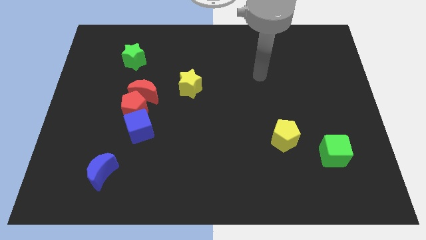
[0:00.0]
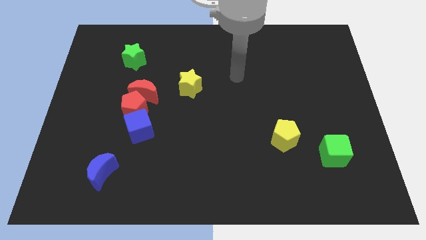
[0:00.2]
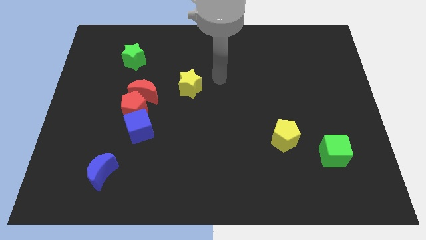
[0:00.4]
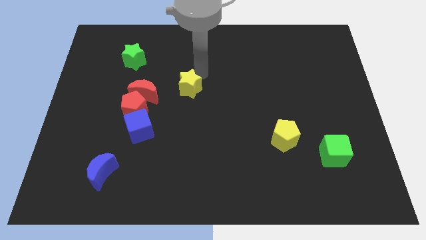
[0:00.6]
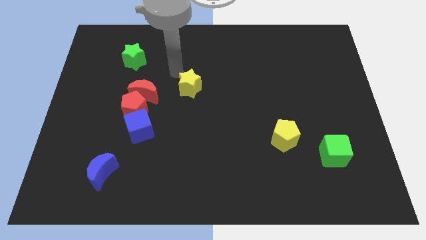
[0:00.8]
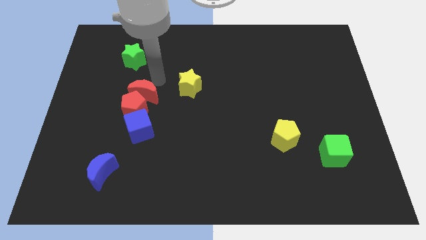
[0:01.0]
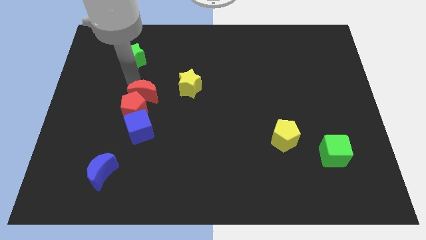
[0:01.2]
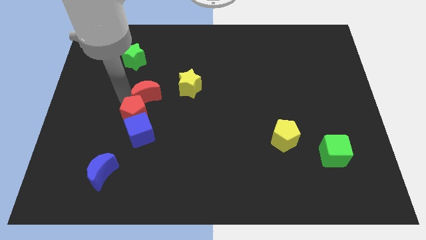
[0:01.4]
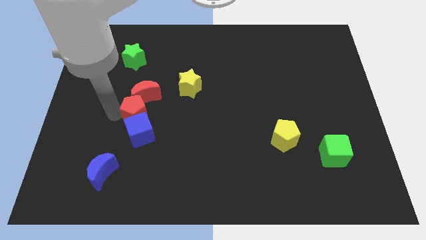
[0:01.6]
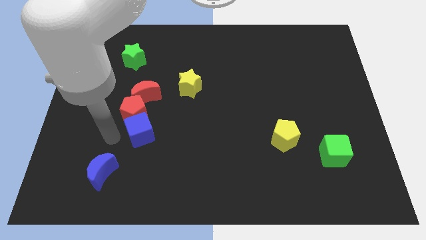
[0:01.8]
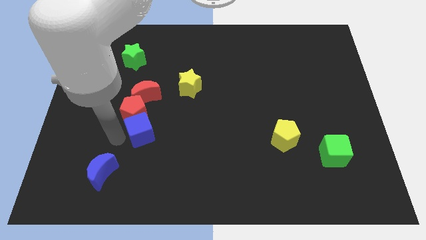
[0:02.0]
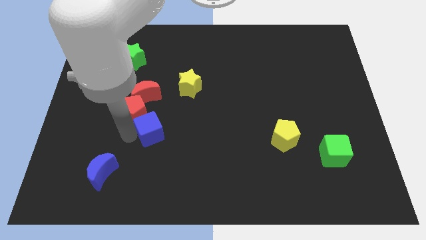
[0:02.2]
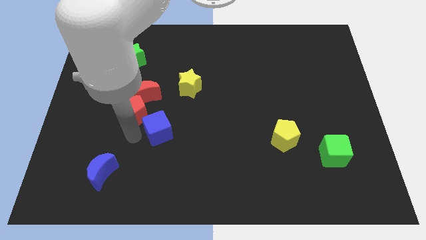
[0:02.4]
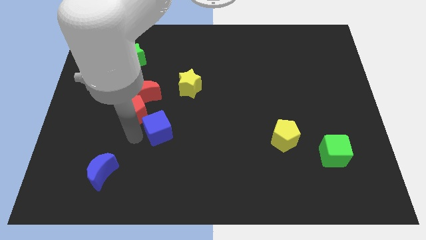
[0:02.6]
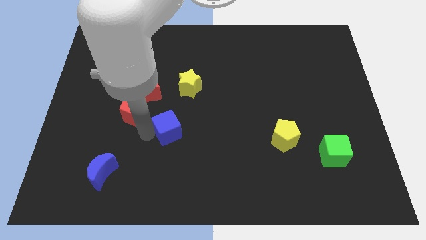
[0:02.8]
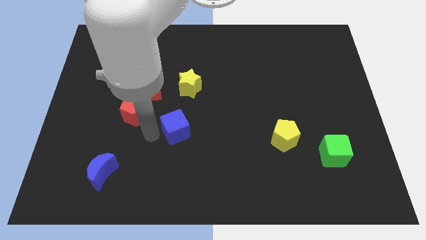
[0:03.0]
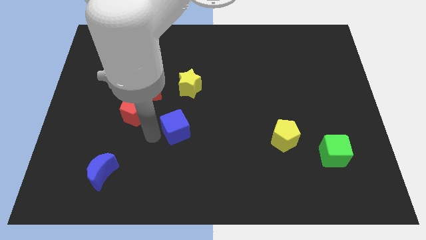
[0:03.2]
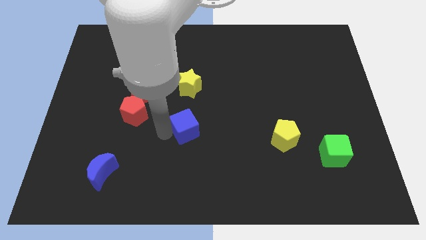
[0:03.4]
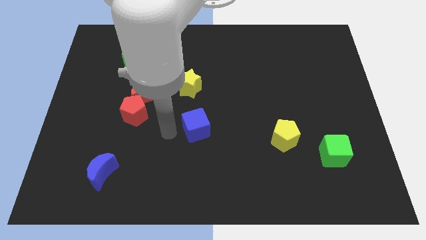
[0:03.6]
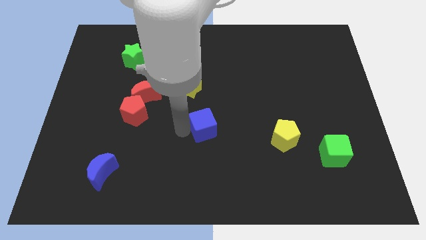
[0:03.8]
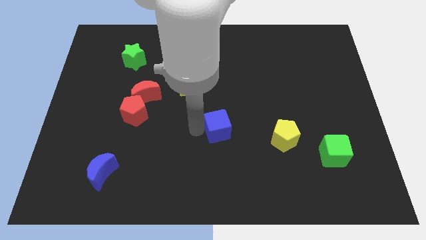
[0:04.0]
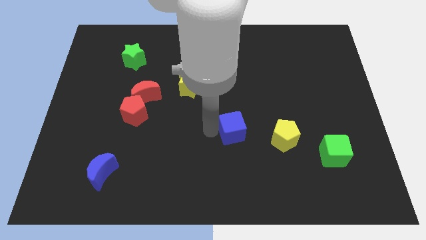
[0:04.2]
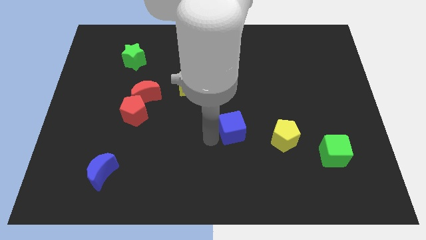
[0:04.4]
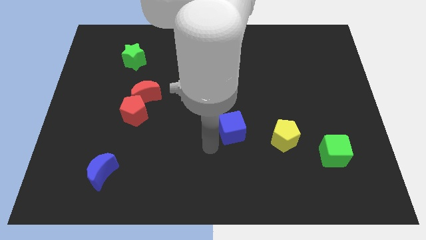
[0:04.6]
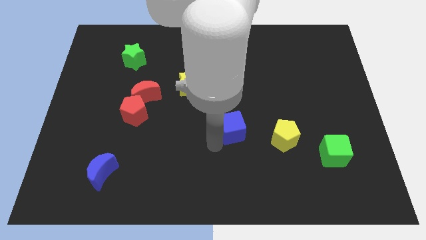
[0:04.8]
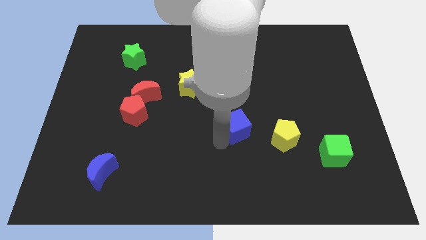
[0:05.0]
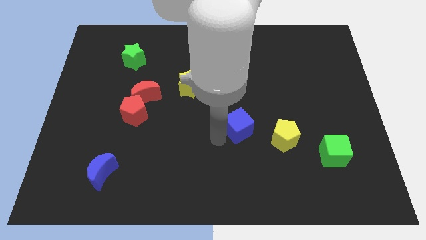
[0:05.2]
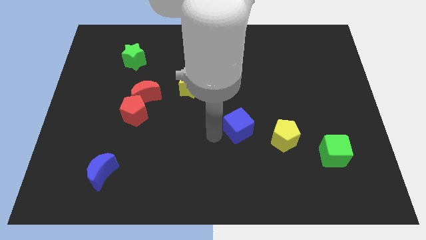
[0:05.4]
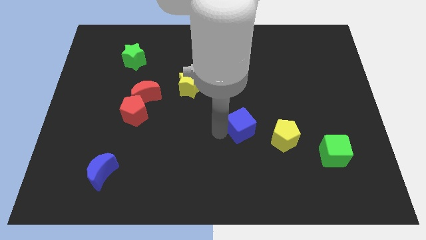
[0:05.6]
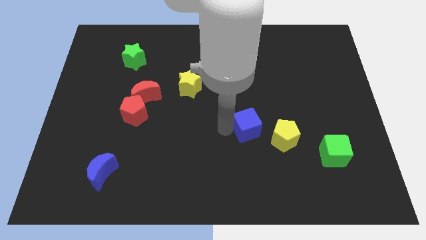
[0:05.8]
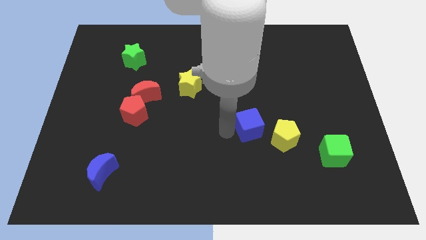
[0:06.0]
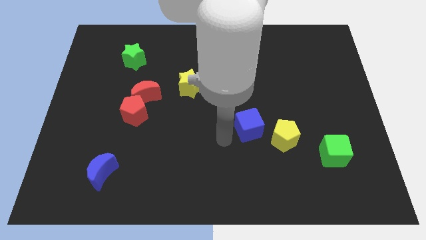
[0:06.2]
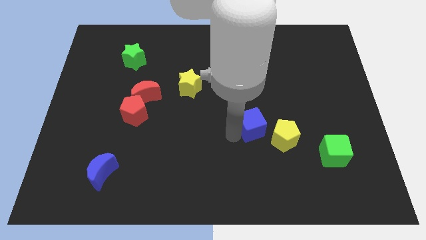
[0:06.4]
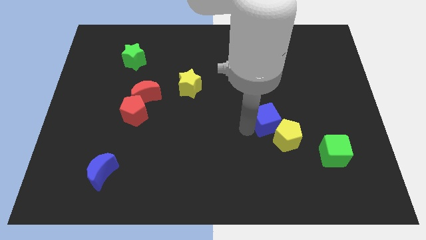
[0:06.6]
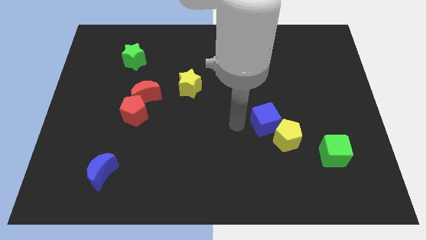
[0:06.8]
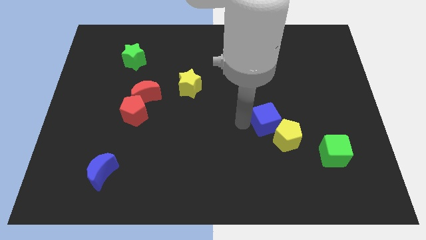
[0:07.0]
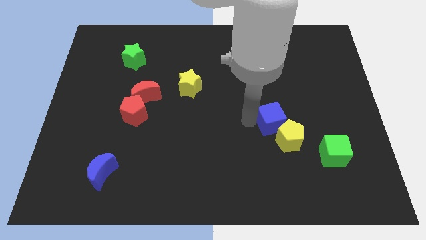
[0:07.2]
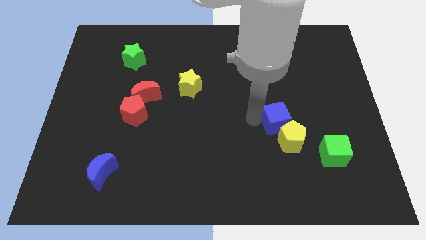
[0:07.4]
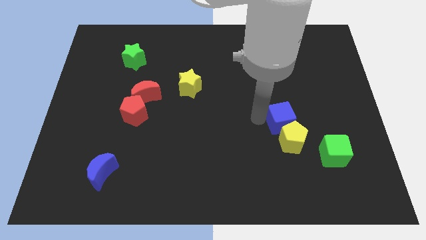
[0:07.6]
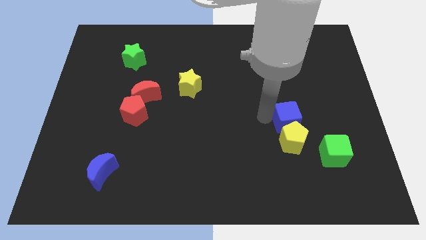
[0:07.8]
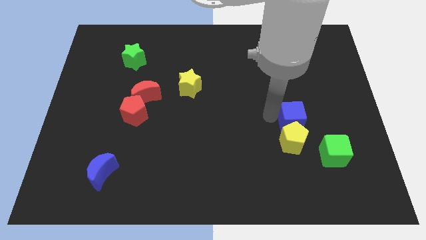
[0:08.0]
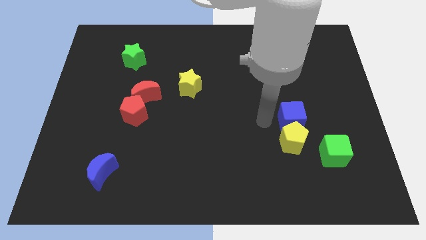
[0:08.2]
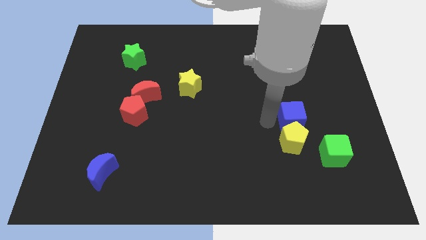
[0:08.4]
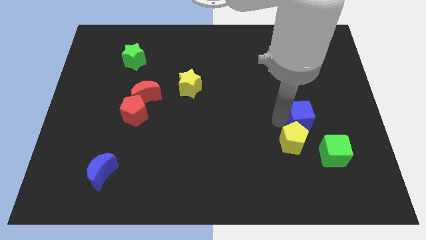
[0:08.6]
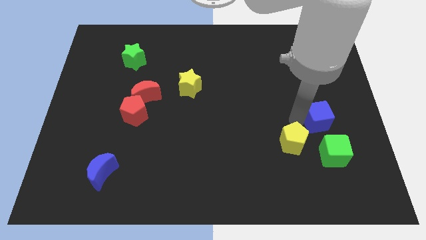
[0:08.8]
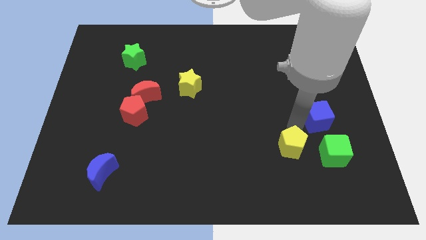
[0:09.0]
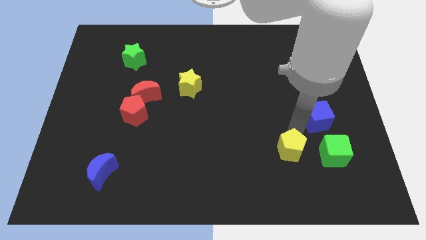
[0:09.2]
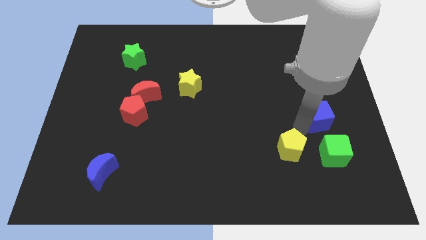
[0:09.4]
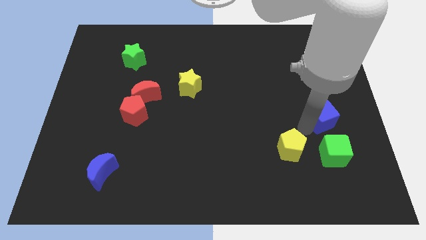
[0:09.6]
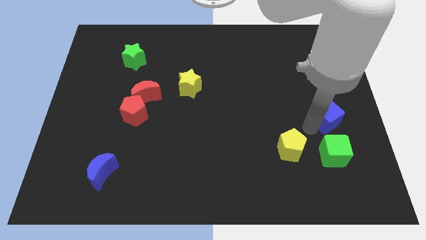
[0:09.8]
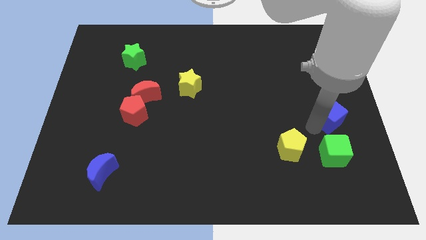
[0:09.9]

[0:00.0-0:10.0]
put the blue cube to the right side

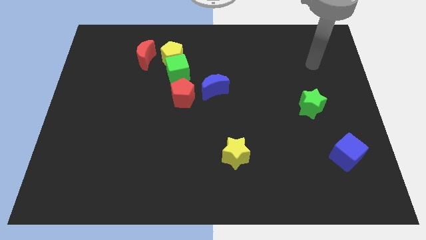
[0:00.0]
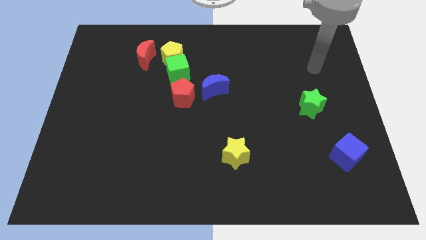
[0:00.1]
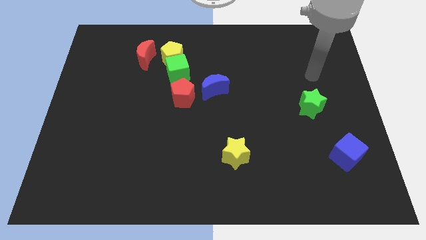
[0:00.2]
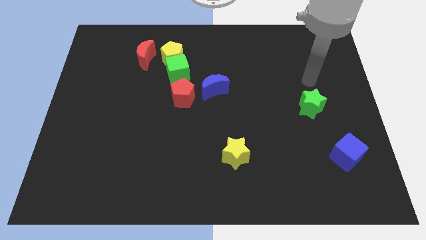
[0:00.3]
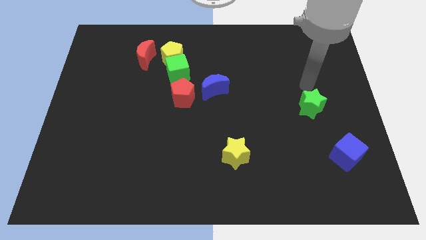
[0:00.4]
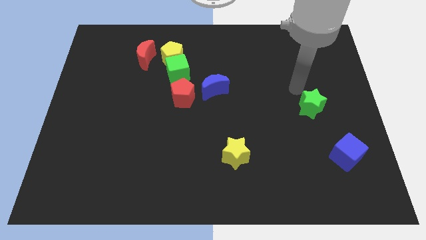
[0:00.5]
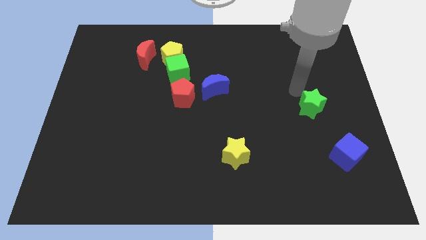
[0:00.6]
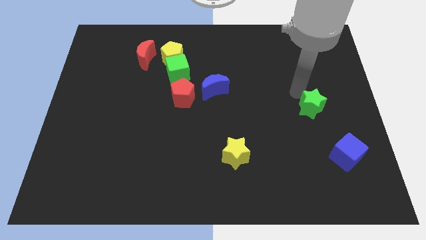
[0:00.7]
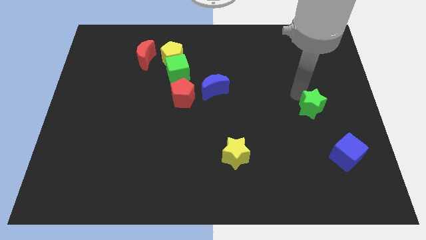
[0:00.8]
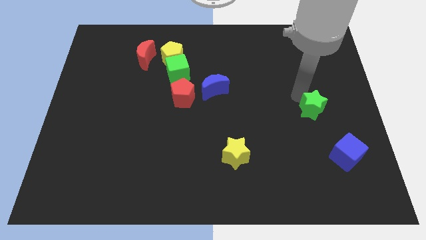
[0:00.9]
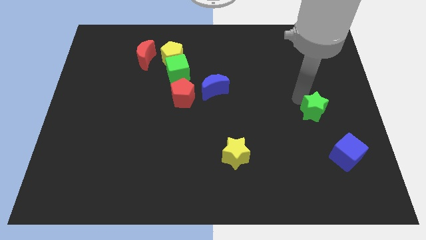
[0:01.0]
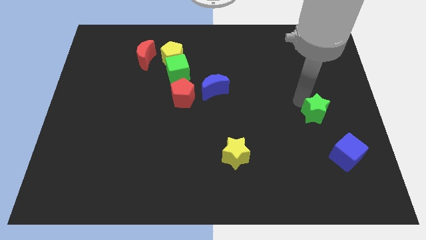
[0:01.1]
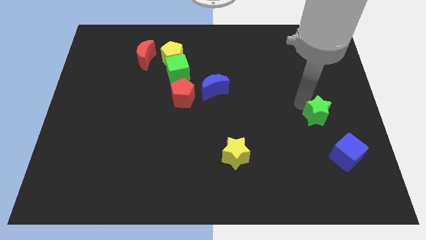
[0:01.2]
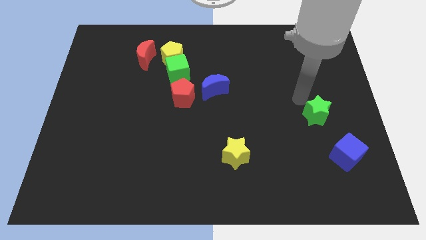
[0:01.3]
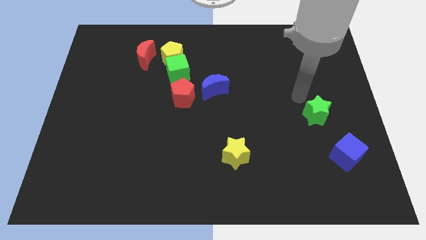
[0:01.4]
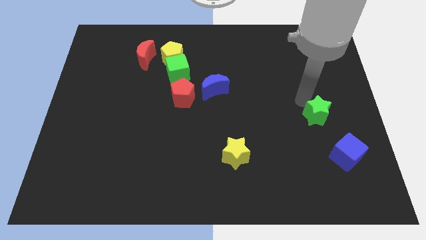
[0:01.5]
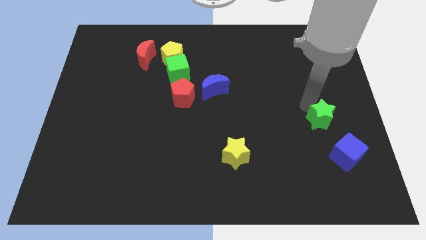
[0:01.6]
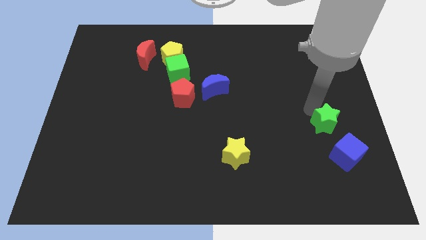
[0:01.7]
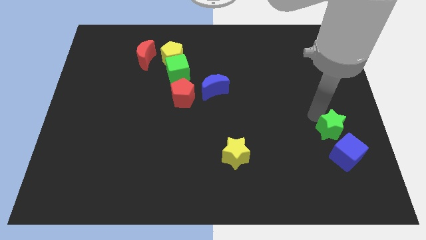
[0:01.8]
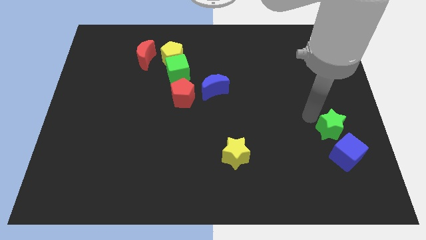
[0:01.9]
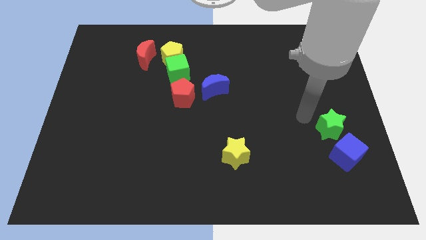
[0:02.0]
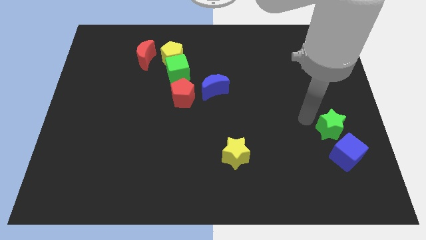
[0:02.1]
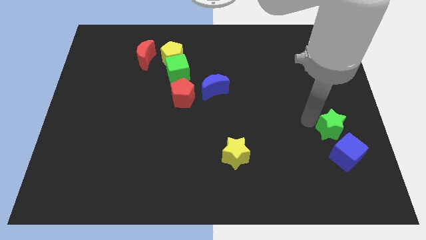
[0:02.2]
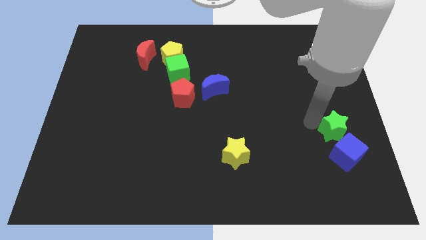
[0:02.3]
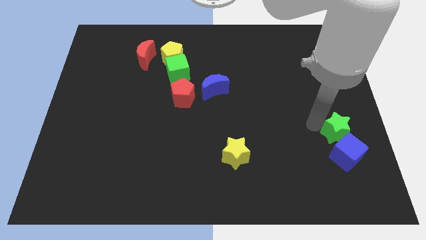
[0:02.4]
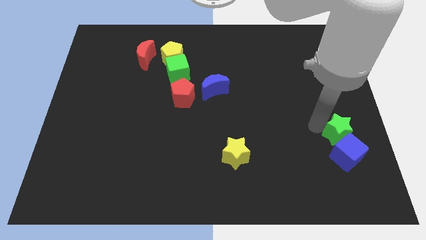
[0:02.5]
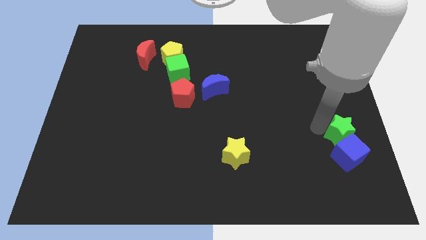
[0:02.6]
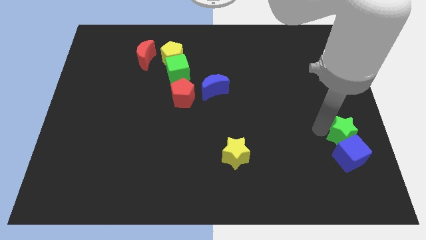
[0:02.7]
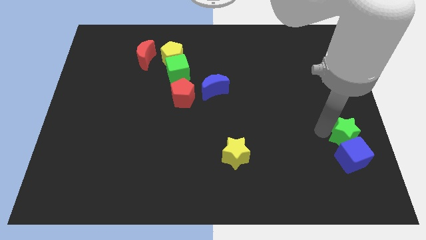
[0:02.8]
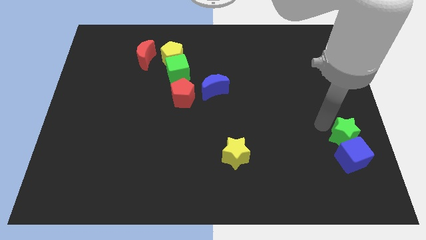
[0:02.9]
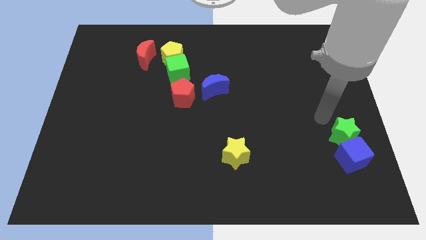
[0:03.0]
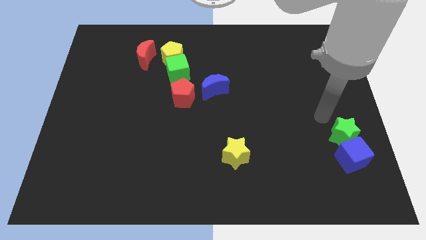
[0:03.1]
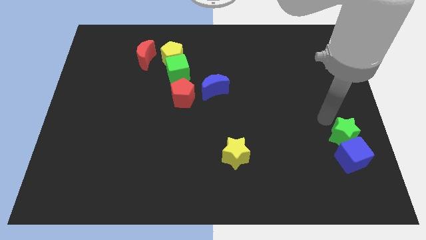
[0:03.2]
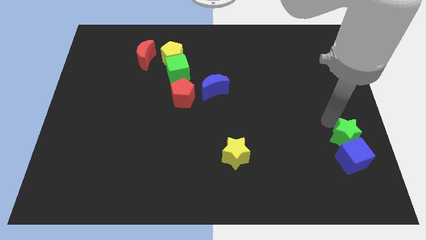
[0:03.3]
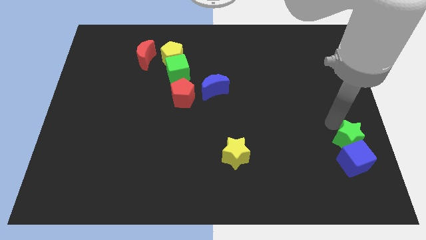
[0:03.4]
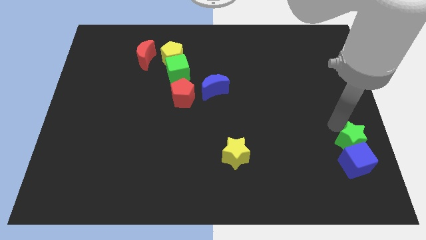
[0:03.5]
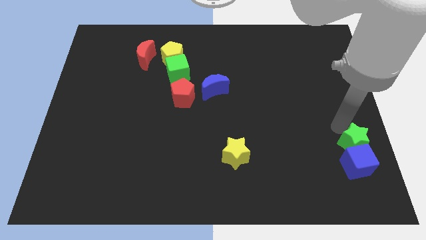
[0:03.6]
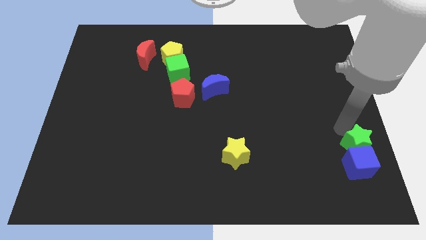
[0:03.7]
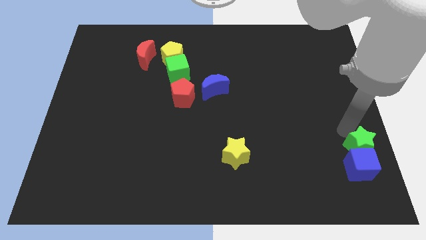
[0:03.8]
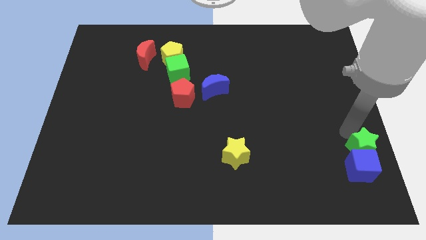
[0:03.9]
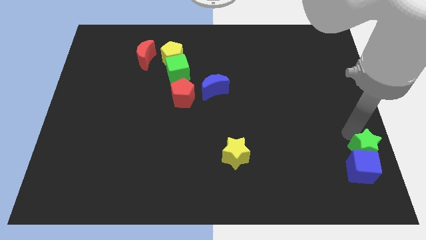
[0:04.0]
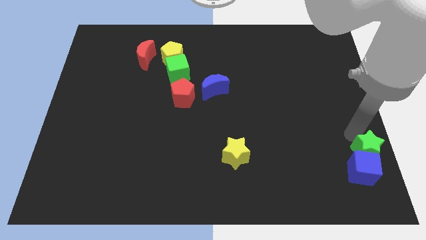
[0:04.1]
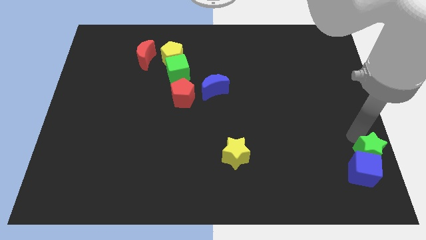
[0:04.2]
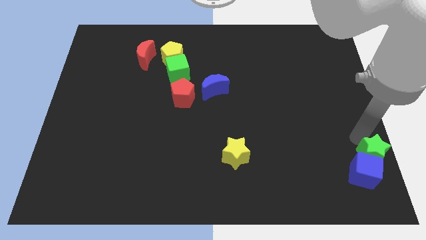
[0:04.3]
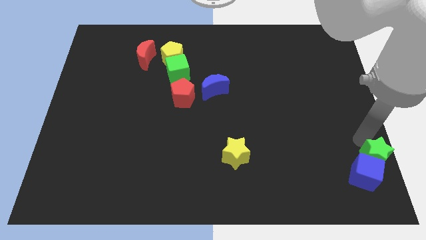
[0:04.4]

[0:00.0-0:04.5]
slide the green star to the bottom right corner
